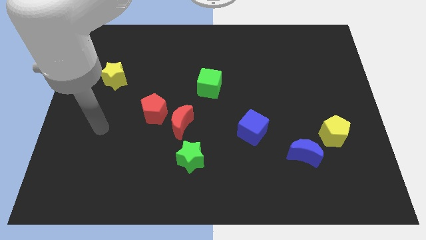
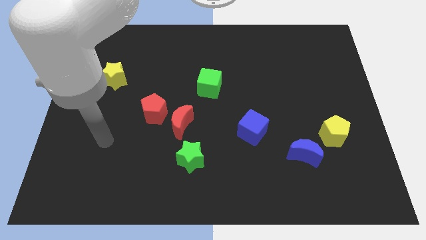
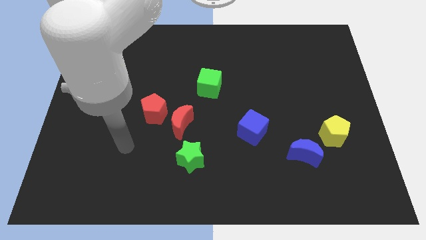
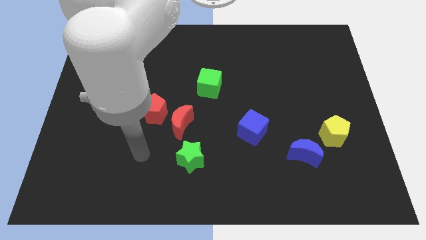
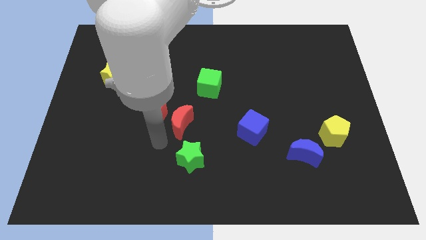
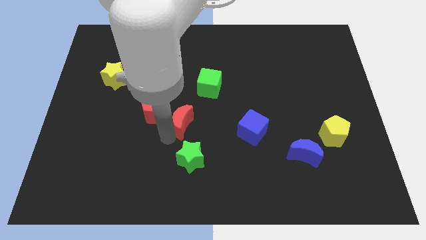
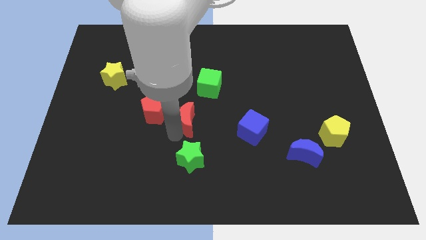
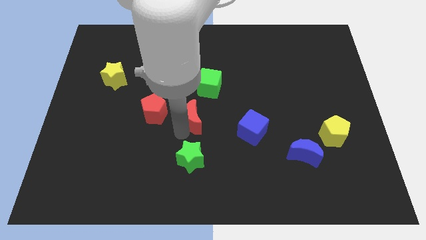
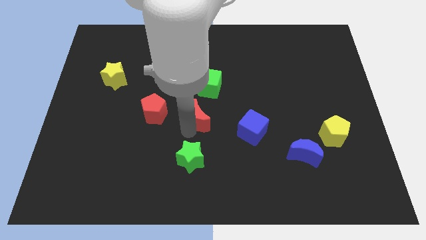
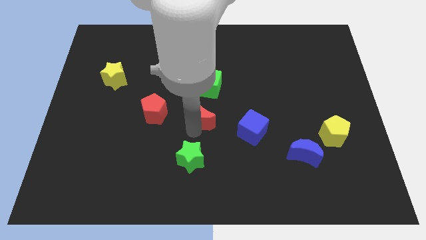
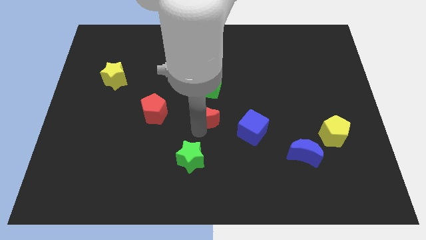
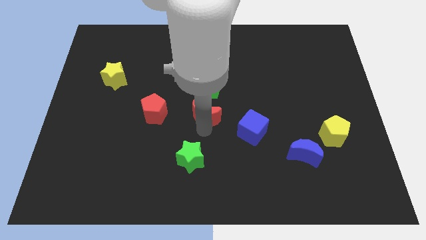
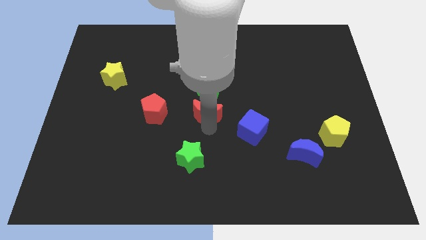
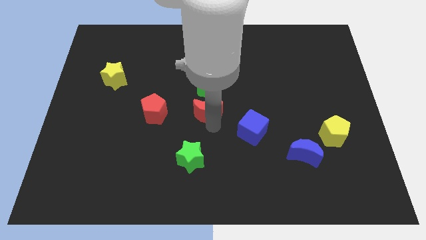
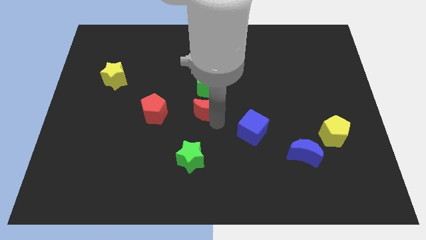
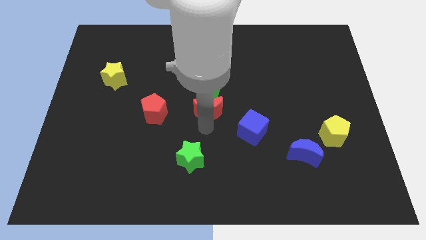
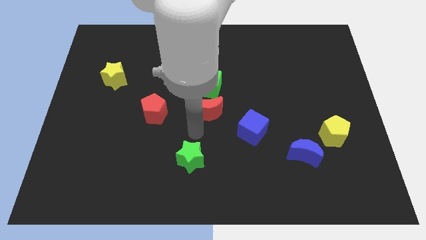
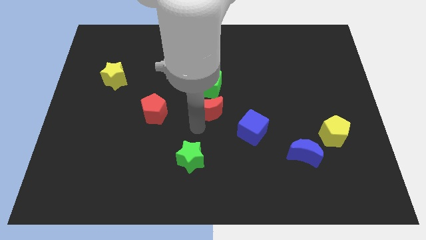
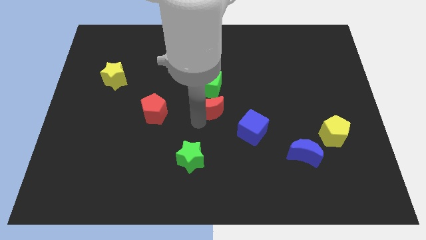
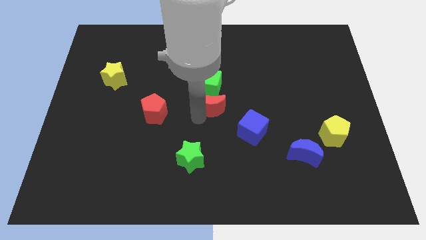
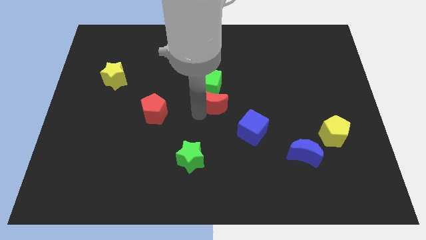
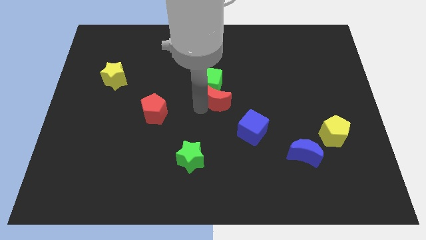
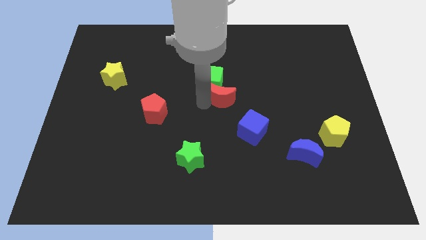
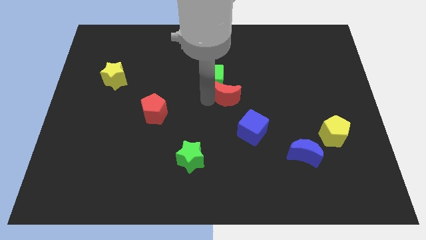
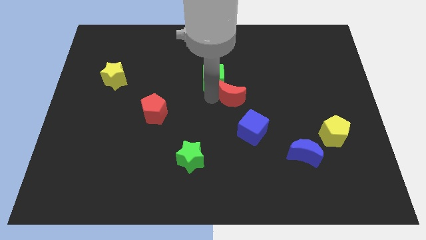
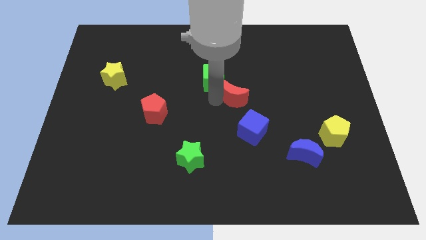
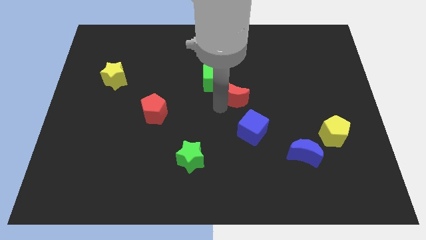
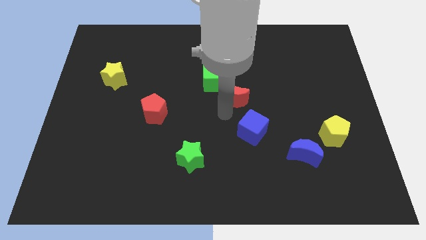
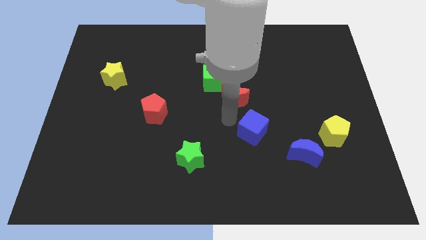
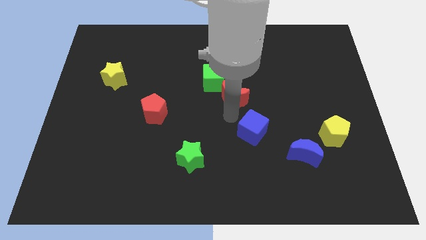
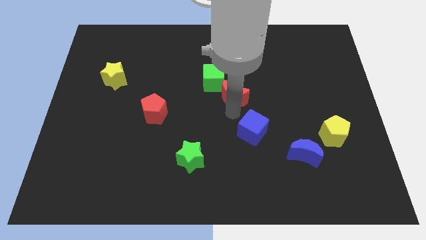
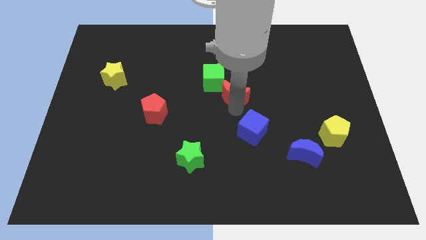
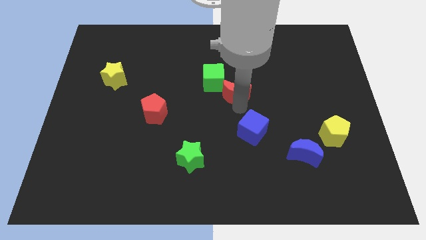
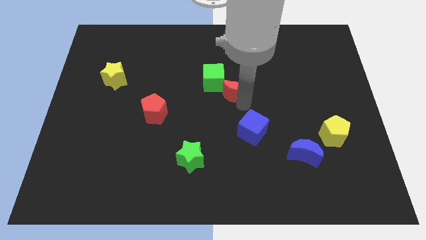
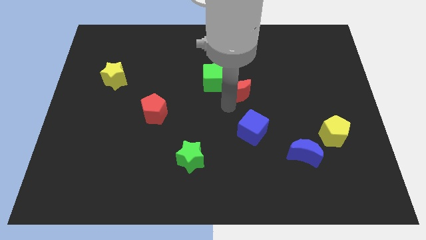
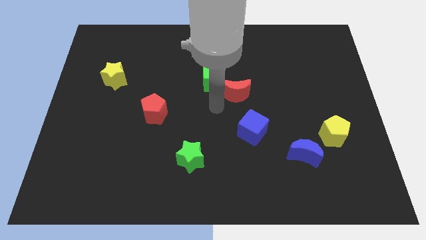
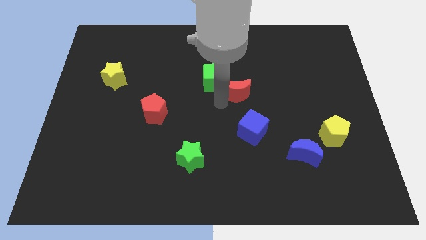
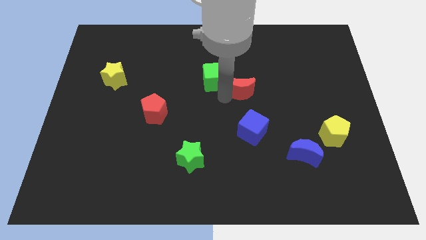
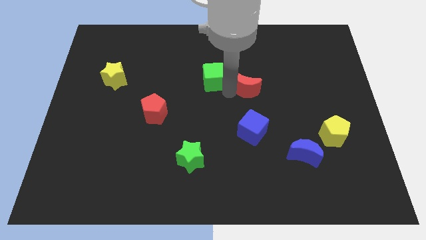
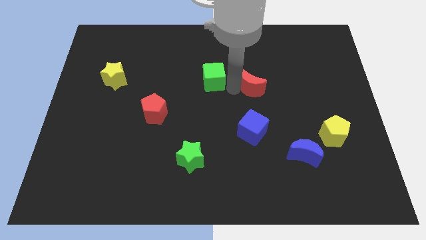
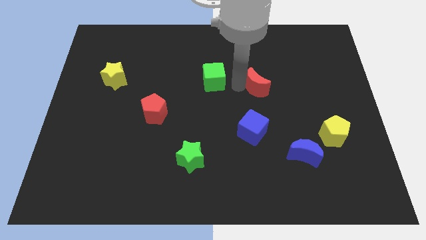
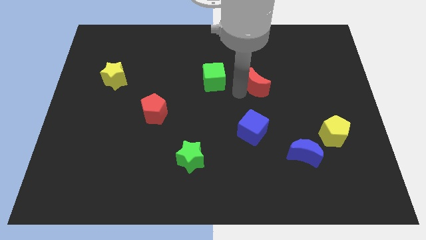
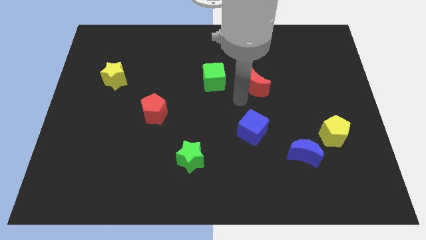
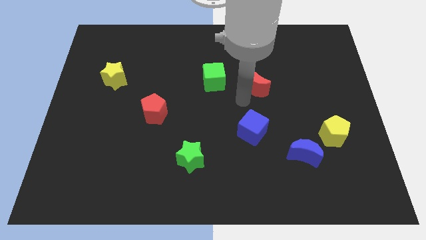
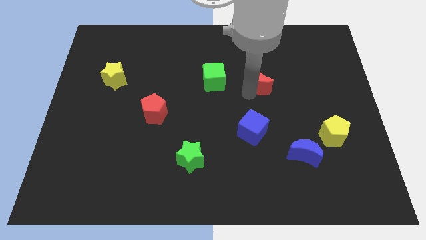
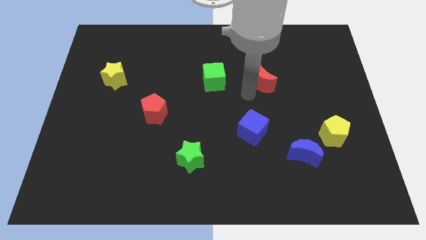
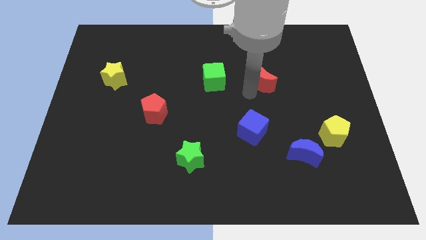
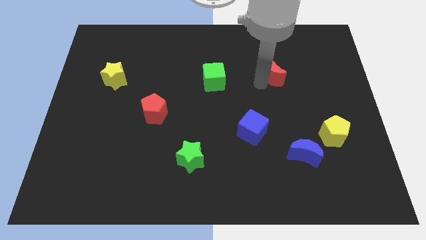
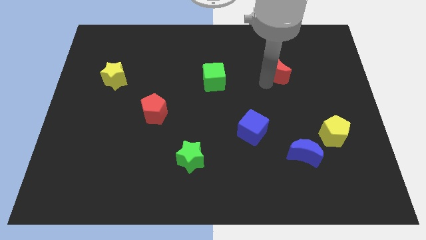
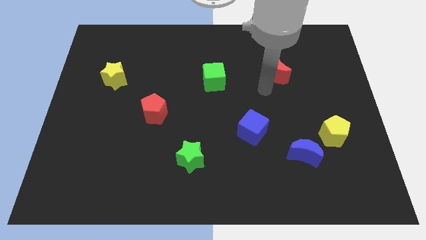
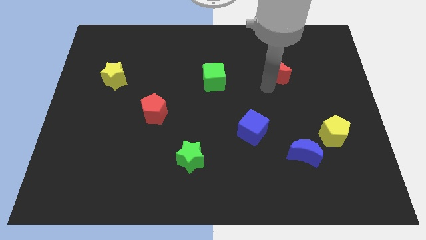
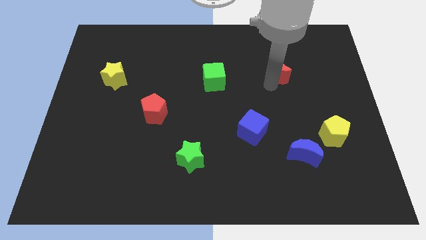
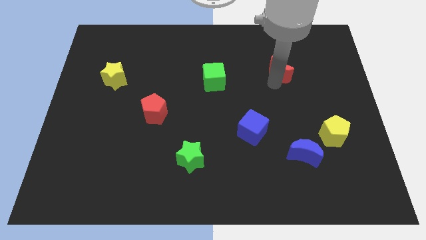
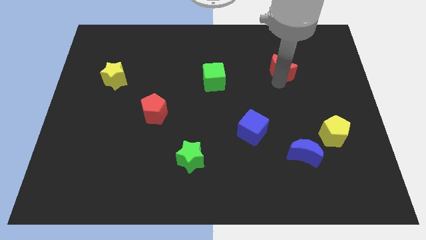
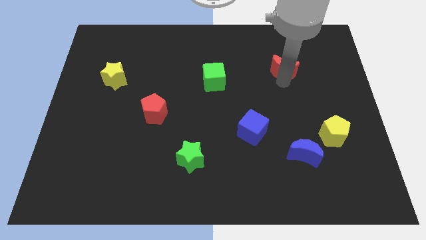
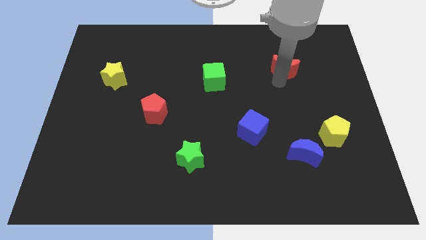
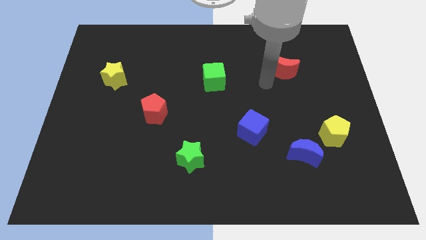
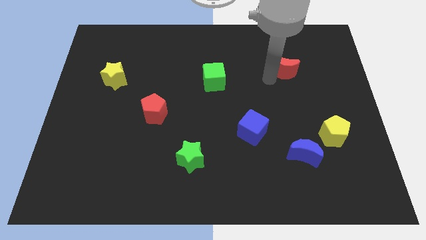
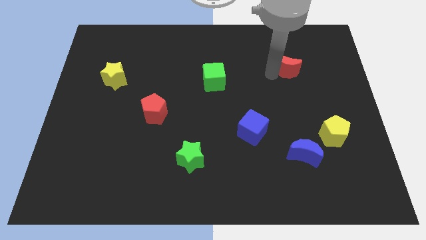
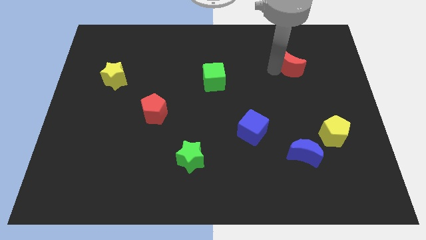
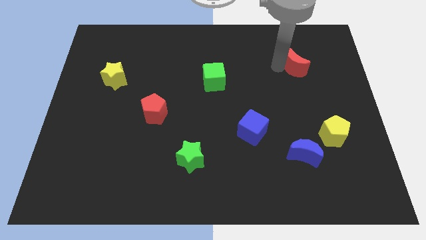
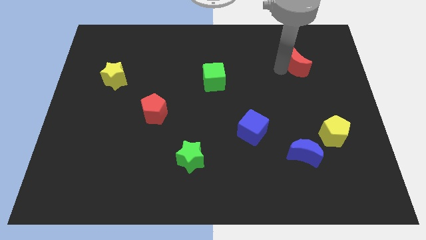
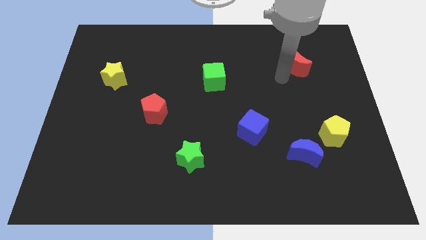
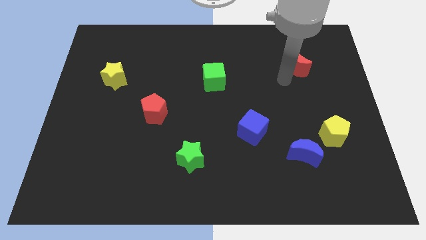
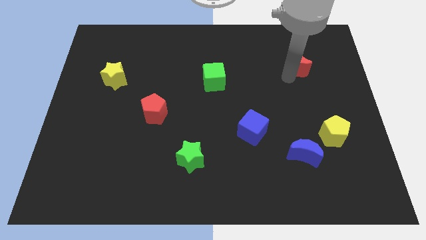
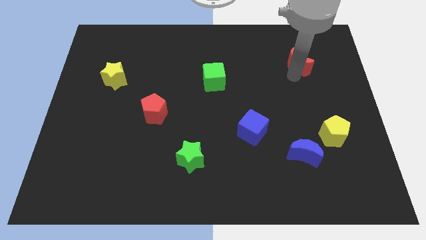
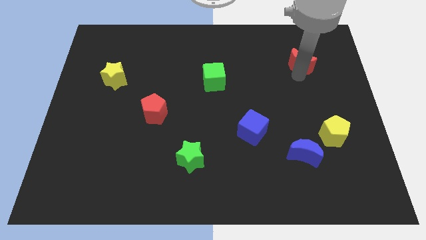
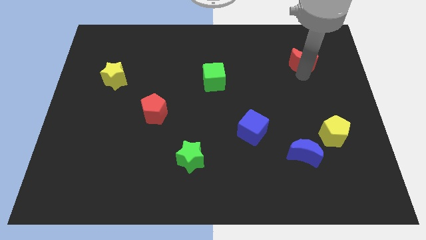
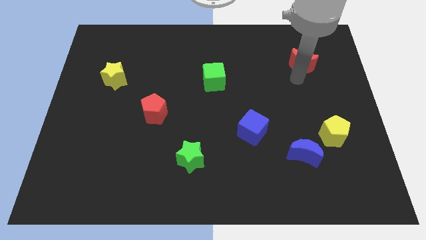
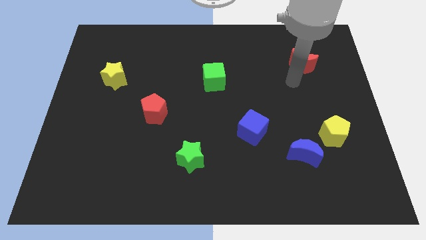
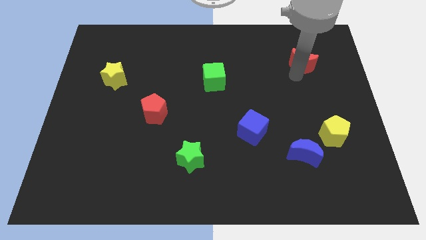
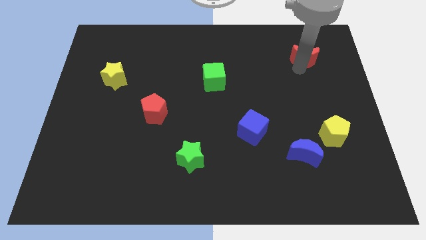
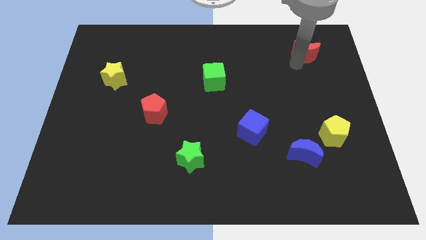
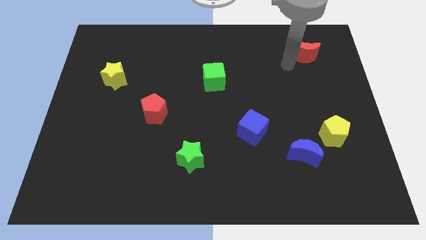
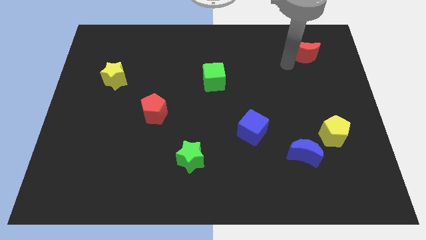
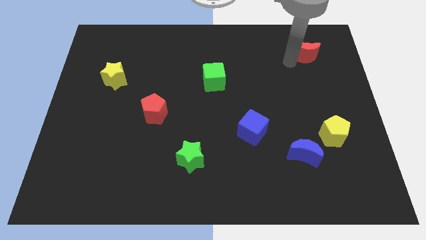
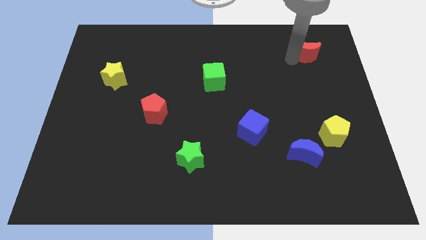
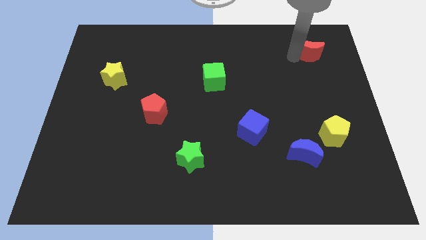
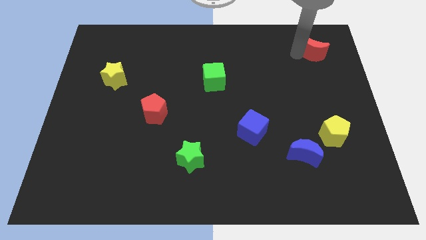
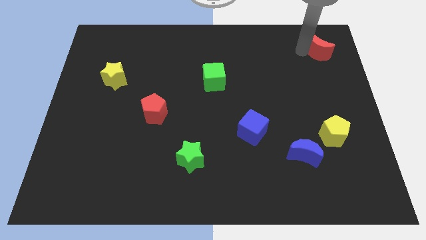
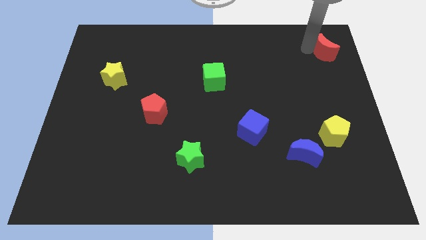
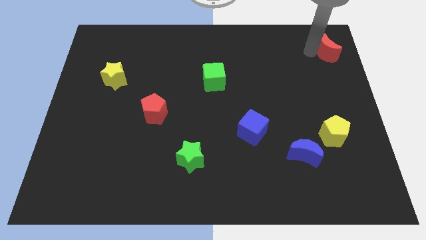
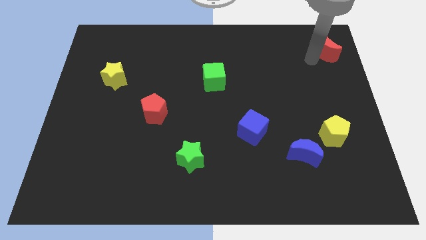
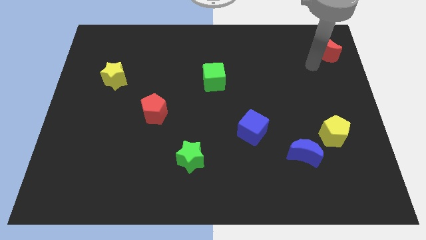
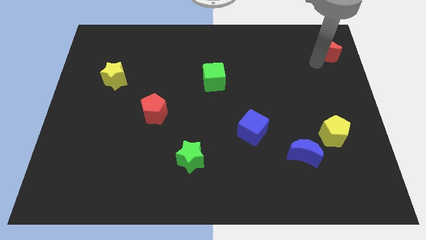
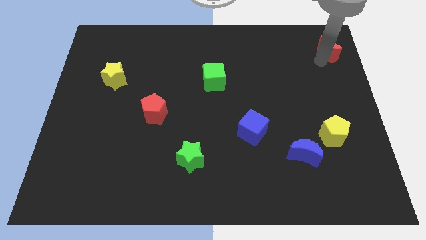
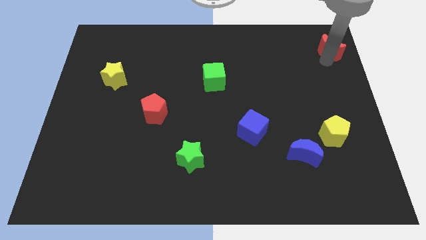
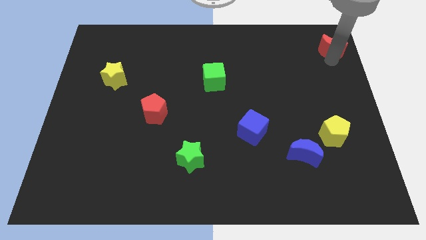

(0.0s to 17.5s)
slide the red moon to the top right of the board
